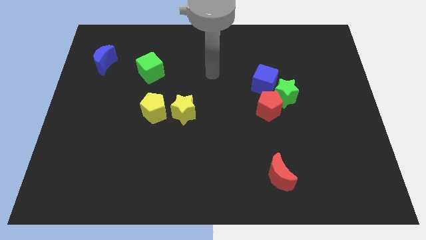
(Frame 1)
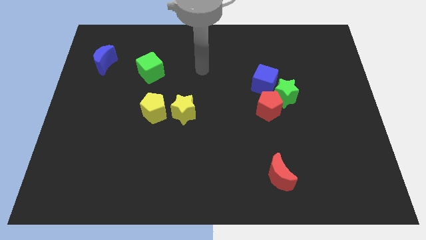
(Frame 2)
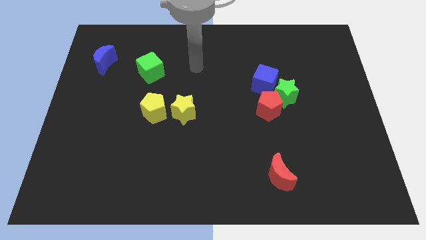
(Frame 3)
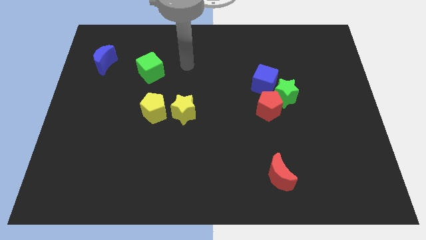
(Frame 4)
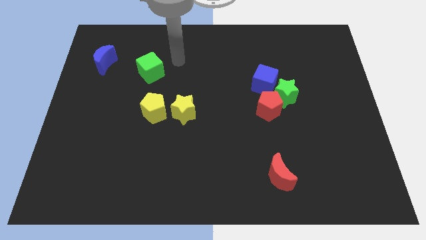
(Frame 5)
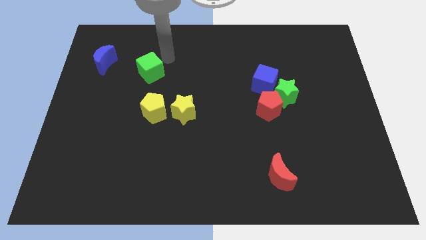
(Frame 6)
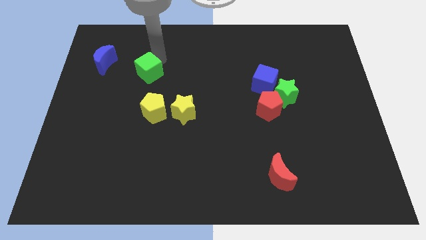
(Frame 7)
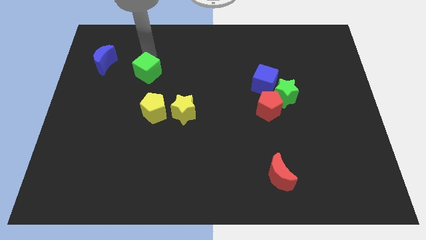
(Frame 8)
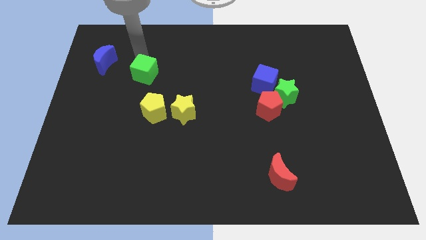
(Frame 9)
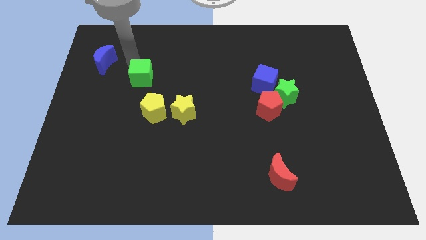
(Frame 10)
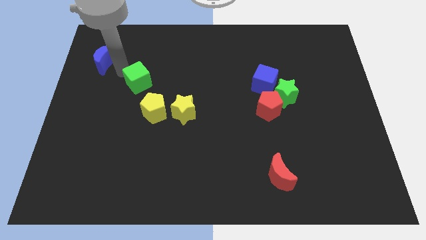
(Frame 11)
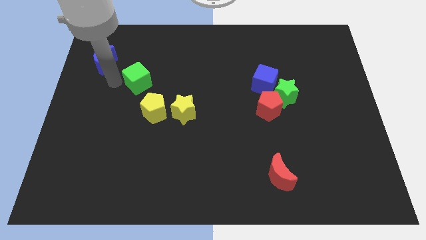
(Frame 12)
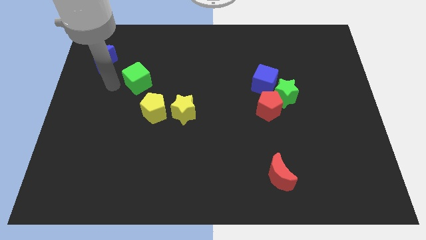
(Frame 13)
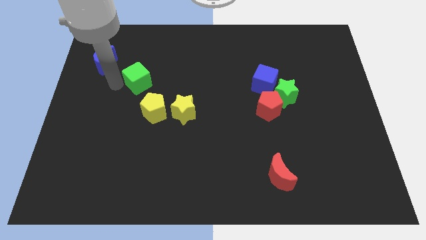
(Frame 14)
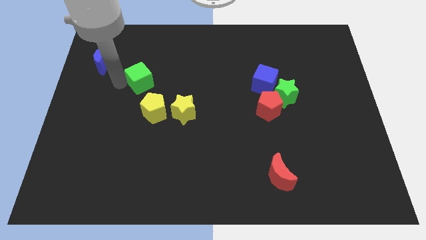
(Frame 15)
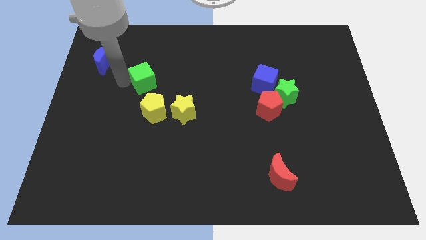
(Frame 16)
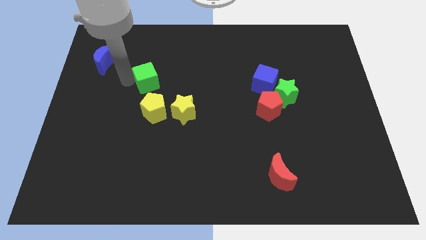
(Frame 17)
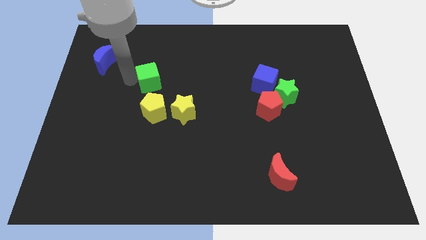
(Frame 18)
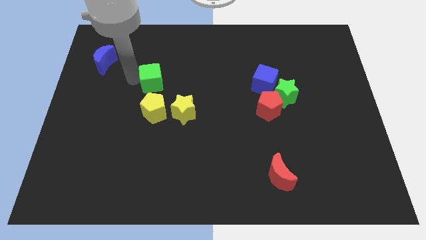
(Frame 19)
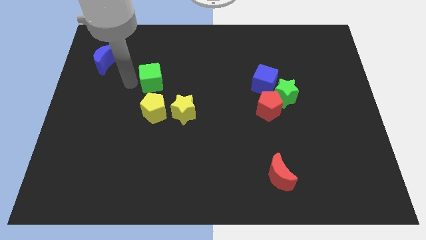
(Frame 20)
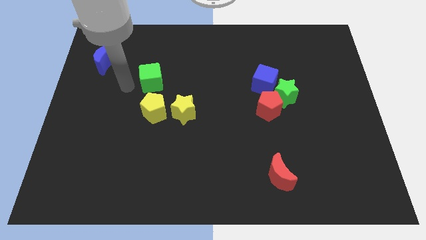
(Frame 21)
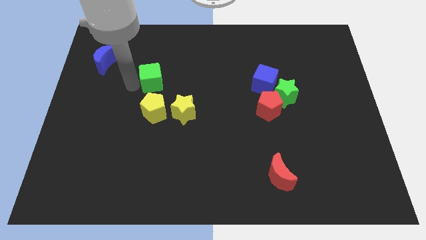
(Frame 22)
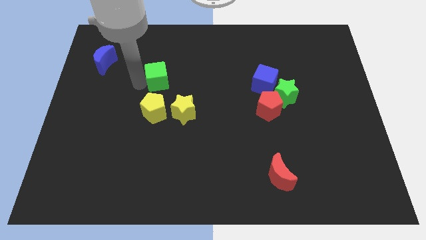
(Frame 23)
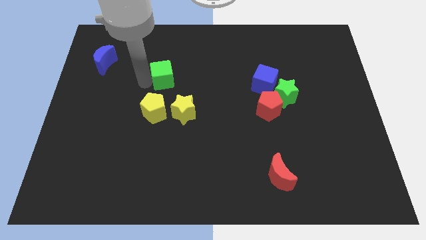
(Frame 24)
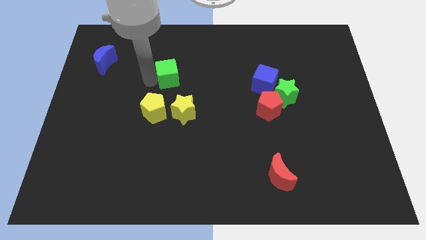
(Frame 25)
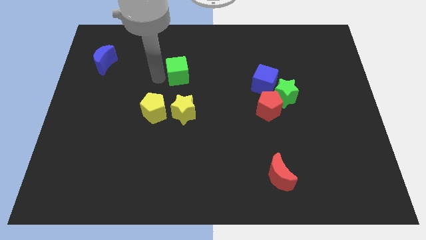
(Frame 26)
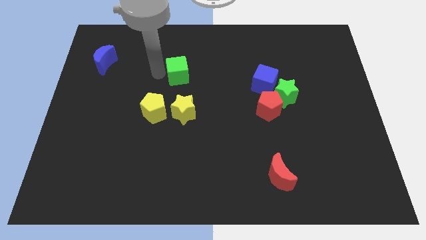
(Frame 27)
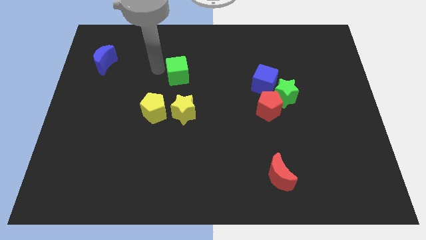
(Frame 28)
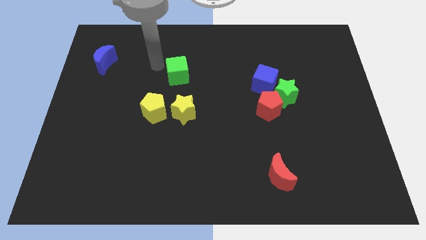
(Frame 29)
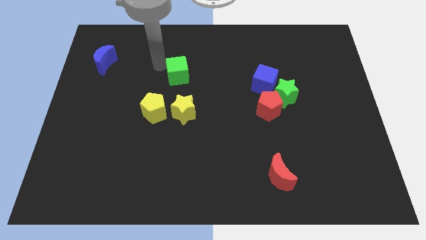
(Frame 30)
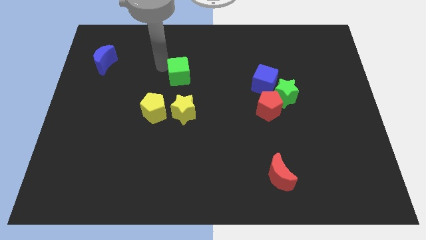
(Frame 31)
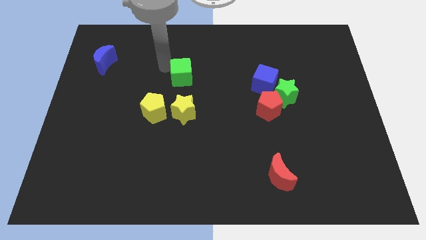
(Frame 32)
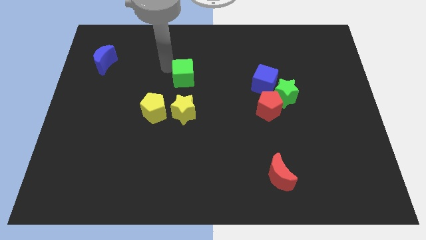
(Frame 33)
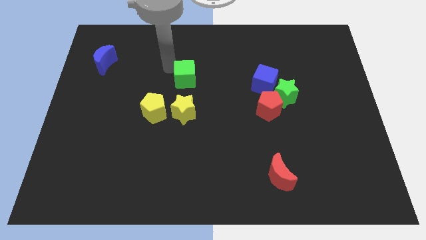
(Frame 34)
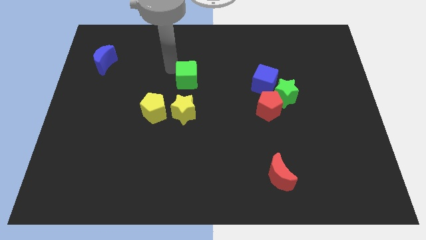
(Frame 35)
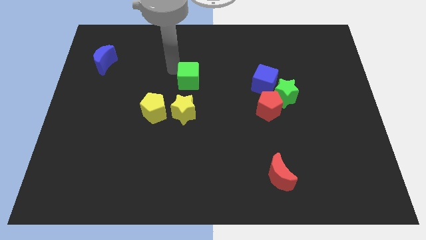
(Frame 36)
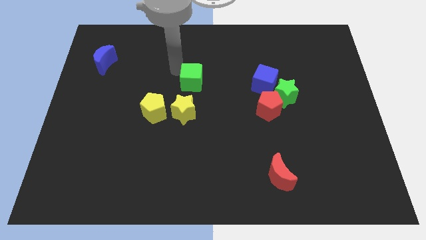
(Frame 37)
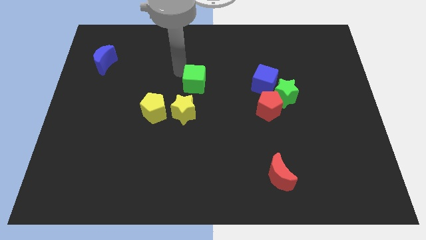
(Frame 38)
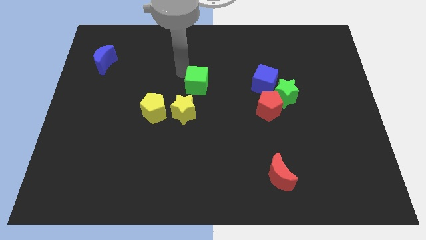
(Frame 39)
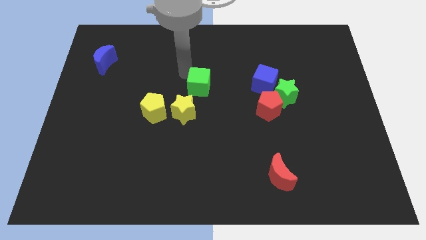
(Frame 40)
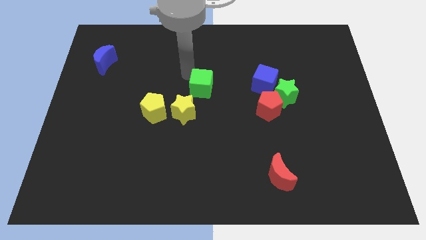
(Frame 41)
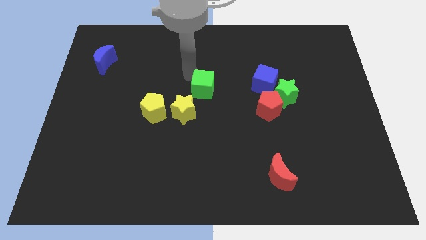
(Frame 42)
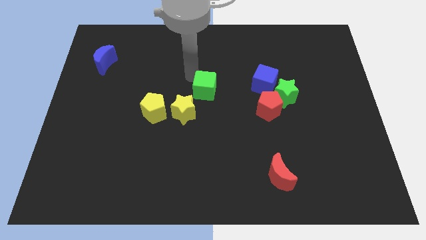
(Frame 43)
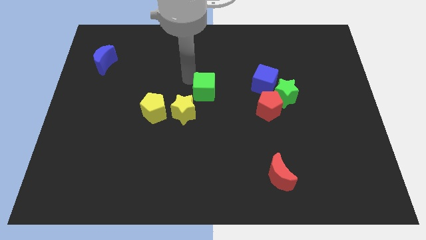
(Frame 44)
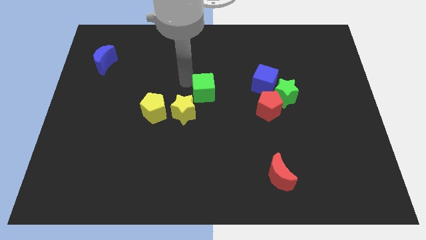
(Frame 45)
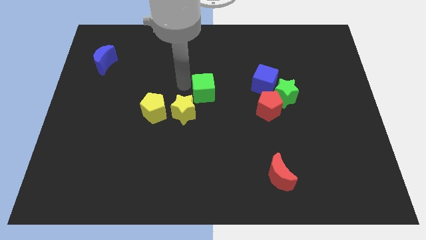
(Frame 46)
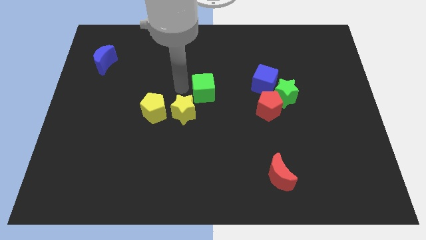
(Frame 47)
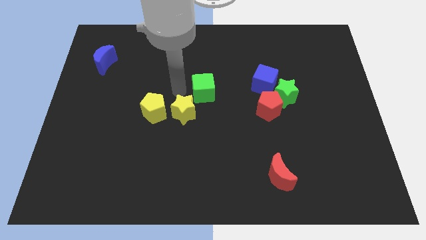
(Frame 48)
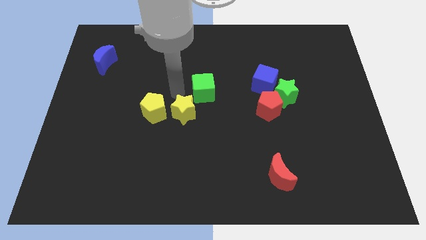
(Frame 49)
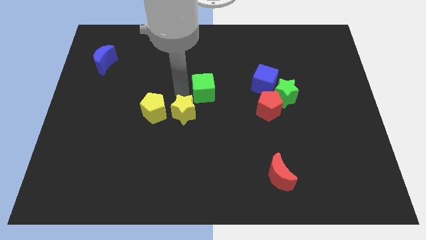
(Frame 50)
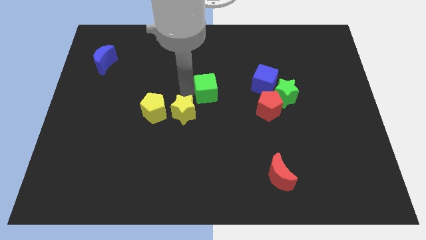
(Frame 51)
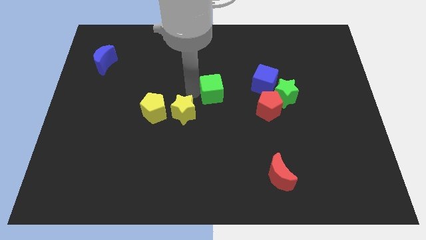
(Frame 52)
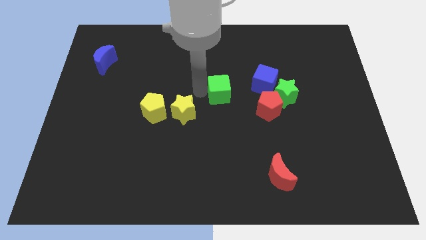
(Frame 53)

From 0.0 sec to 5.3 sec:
push the green cube to the left side of the green star

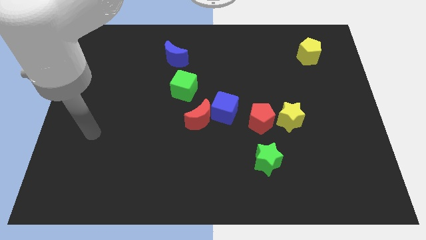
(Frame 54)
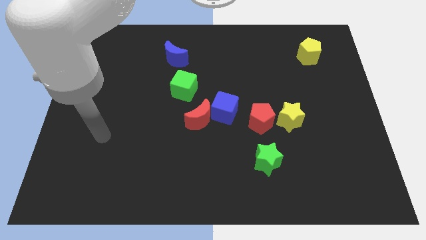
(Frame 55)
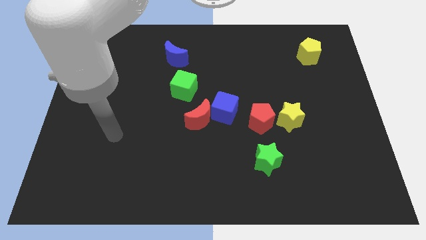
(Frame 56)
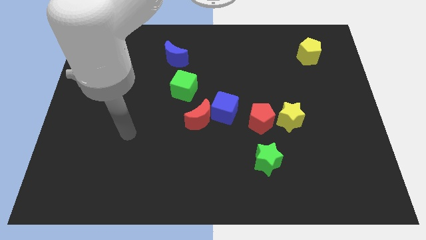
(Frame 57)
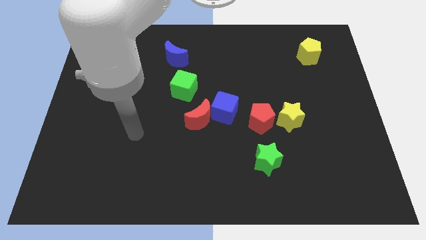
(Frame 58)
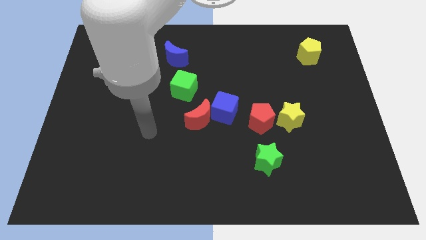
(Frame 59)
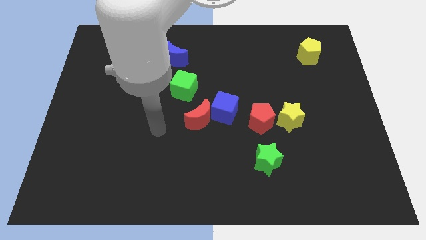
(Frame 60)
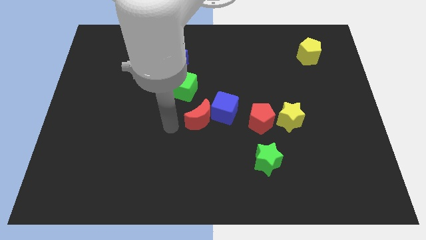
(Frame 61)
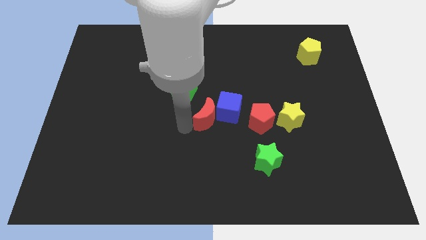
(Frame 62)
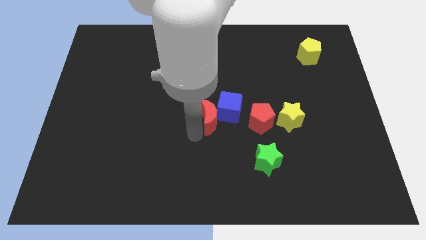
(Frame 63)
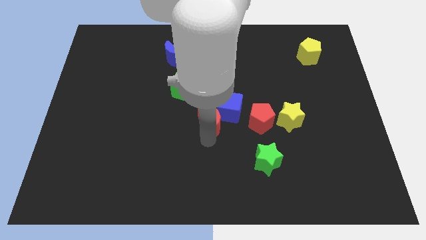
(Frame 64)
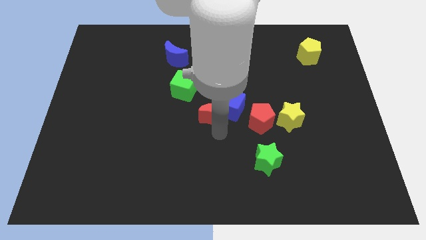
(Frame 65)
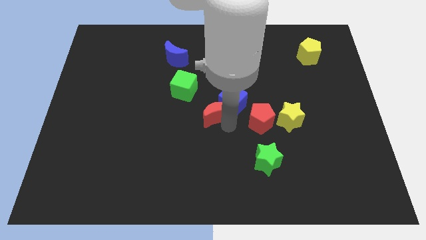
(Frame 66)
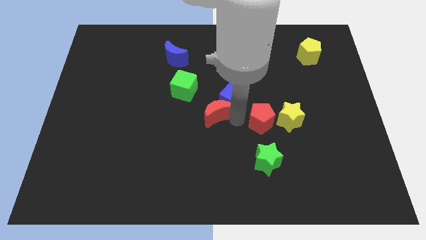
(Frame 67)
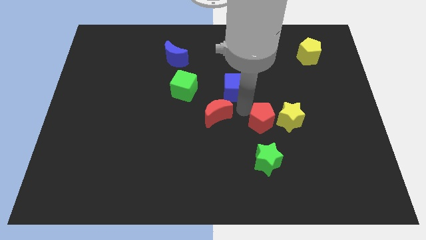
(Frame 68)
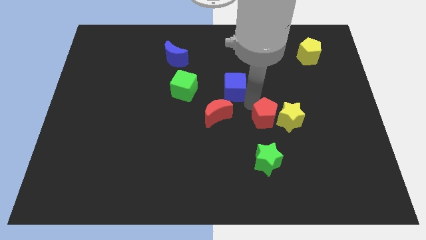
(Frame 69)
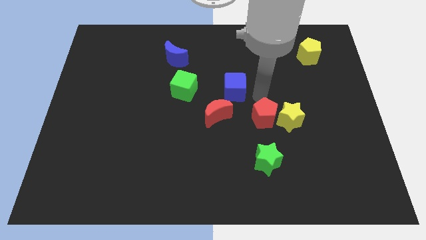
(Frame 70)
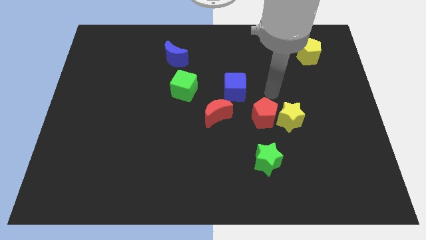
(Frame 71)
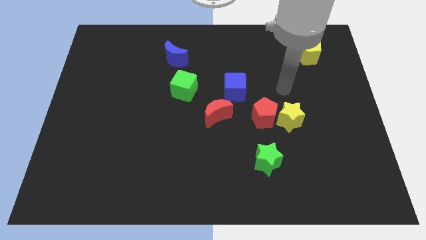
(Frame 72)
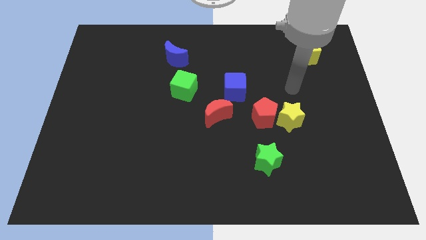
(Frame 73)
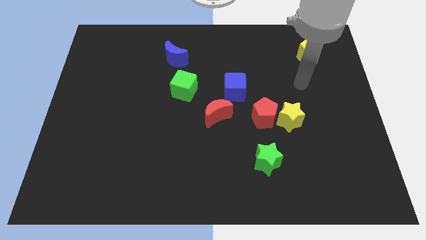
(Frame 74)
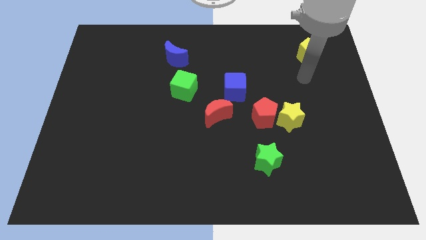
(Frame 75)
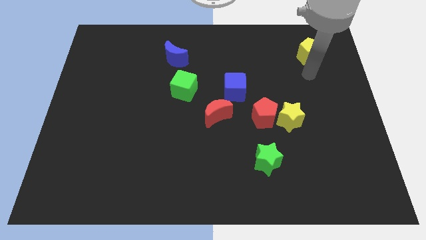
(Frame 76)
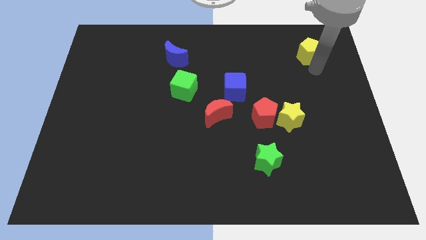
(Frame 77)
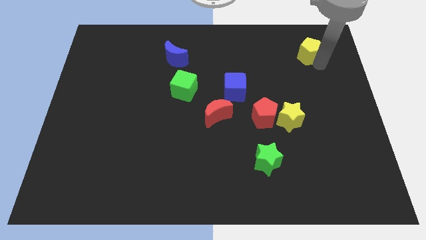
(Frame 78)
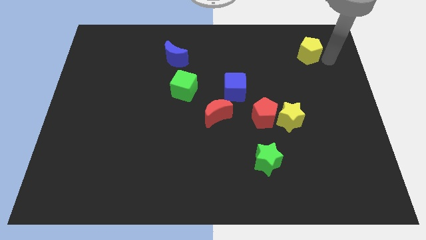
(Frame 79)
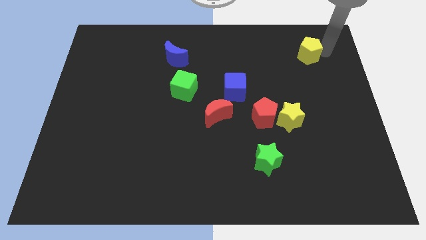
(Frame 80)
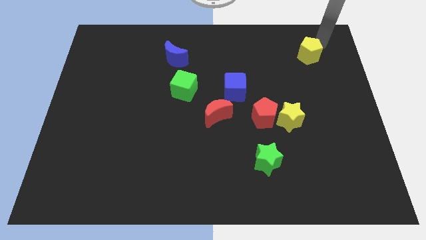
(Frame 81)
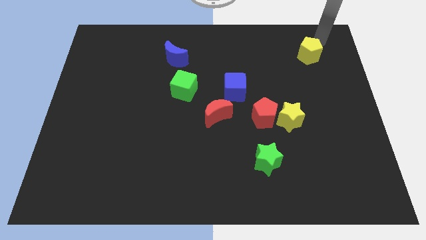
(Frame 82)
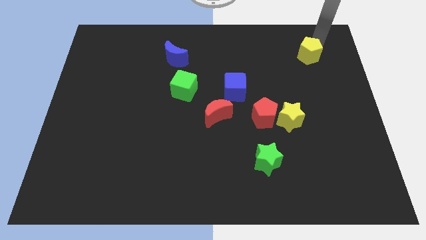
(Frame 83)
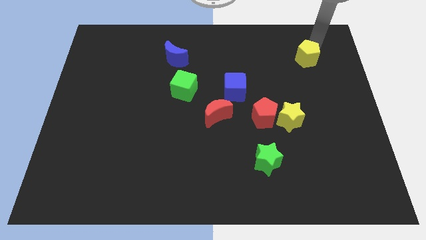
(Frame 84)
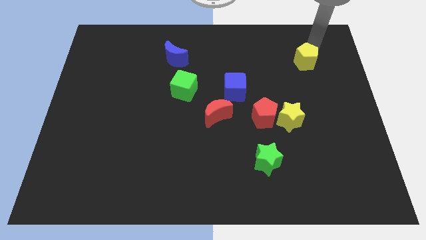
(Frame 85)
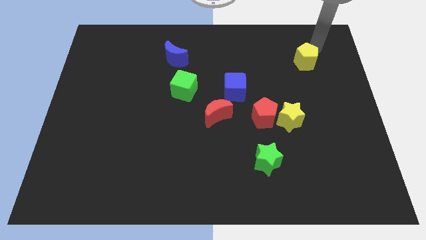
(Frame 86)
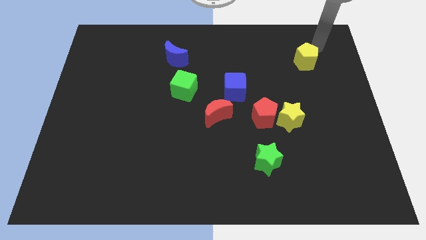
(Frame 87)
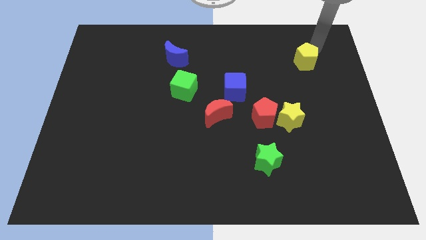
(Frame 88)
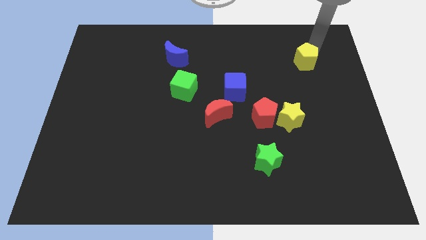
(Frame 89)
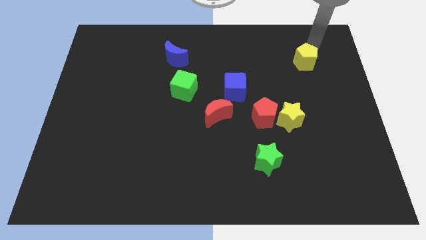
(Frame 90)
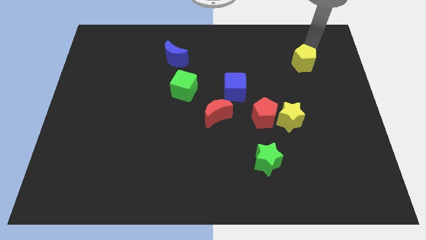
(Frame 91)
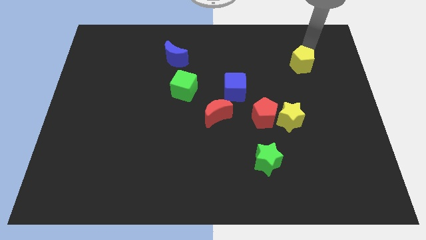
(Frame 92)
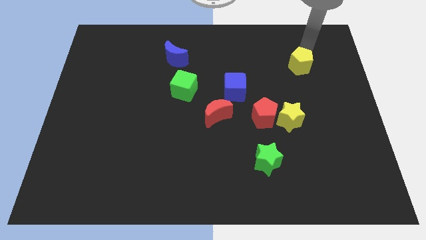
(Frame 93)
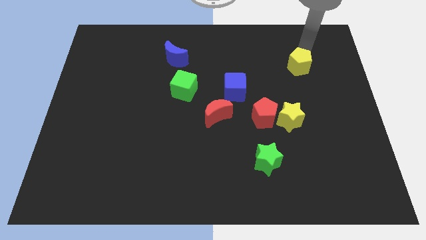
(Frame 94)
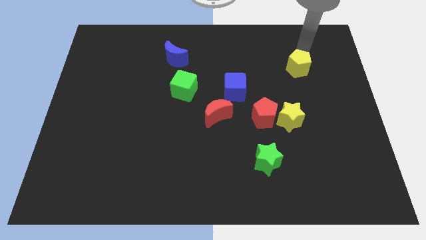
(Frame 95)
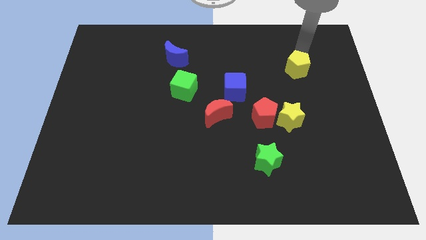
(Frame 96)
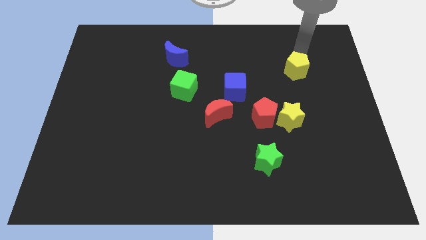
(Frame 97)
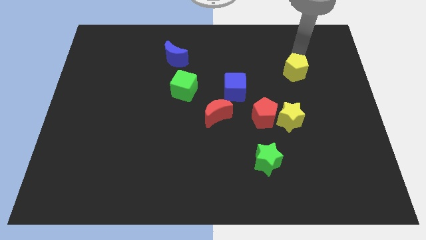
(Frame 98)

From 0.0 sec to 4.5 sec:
move the yellow pentagon to the top of the yellow star
